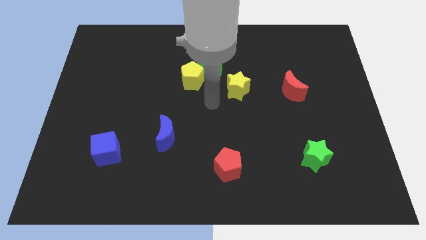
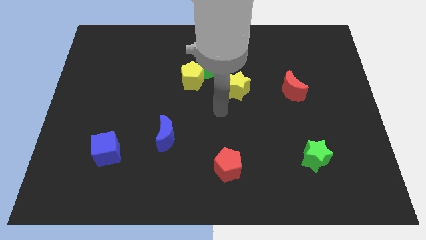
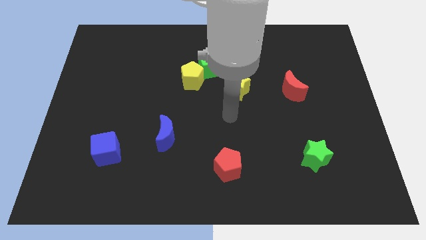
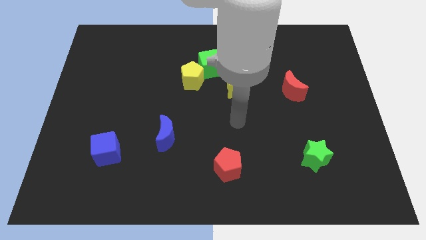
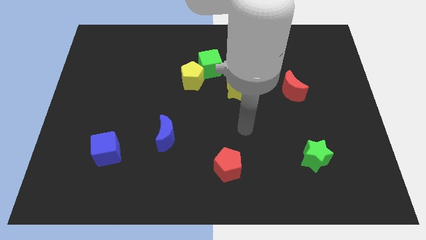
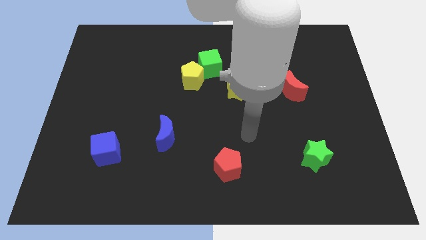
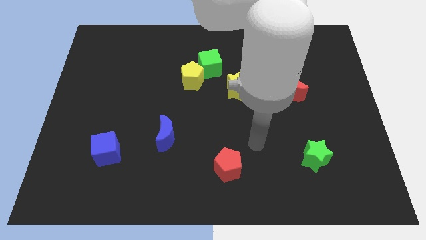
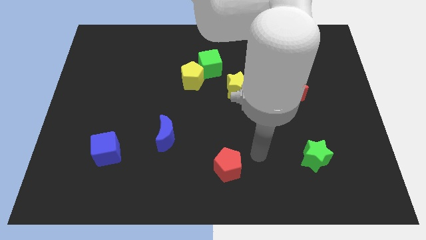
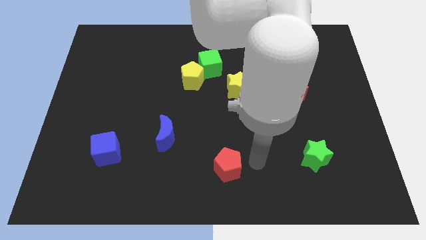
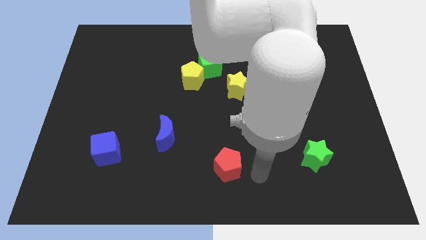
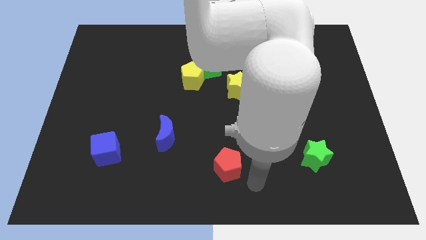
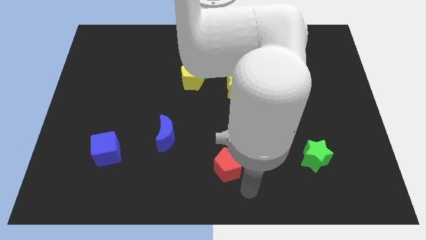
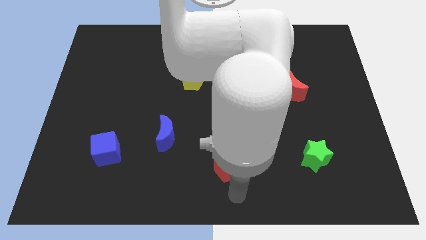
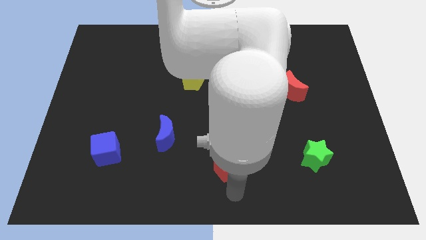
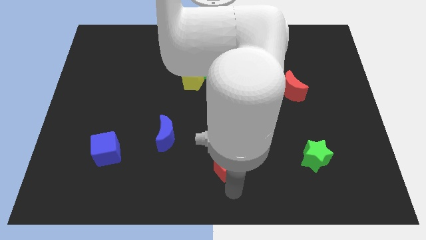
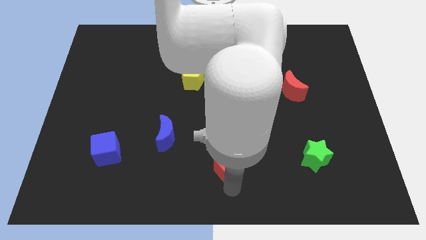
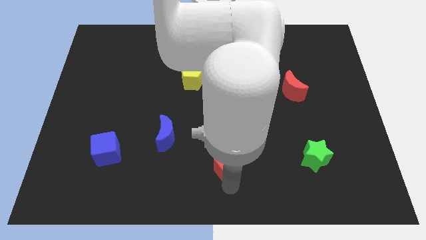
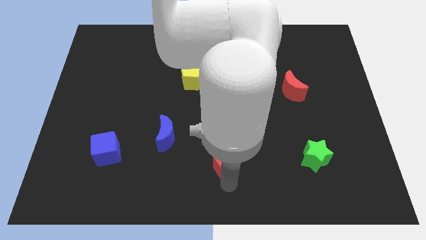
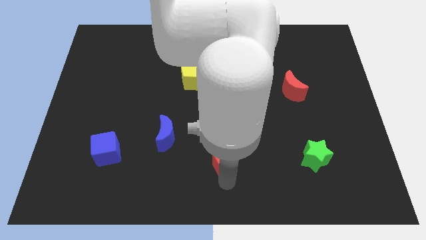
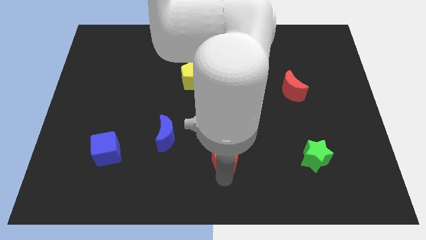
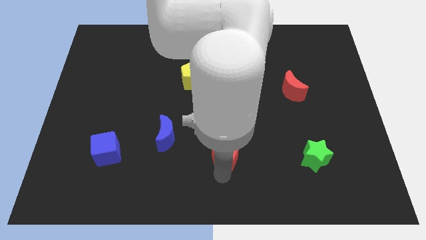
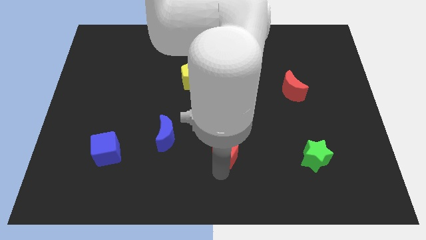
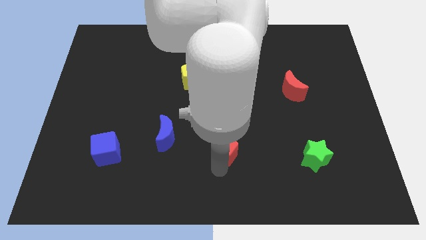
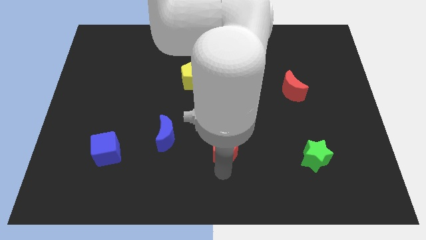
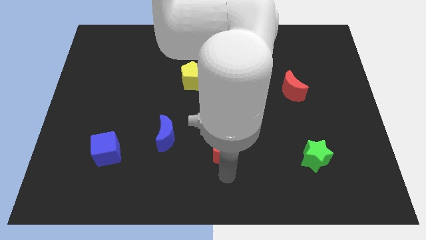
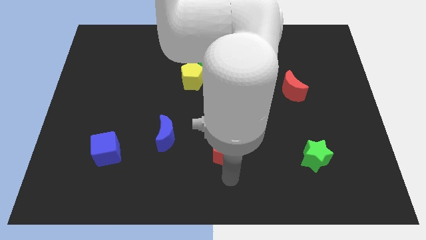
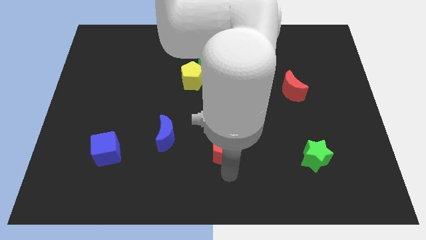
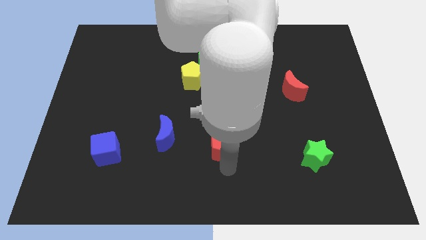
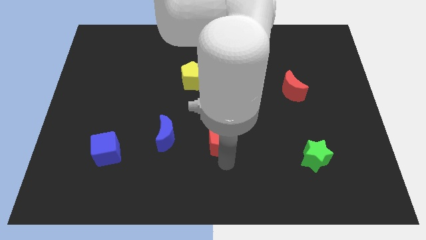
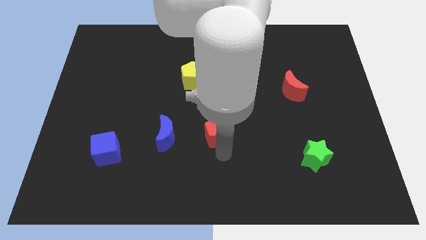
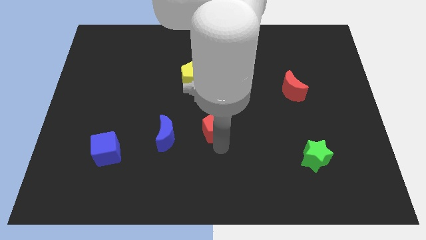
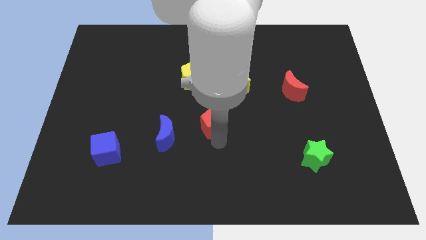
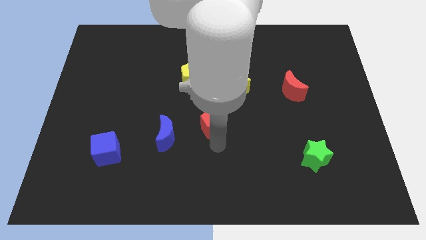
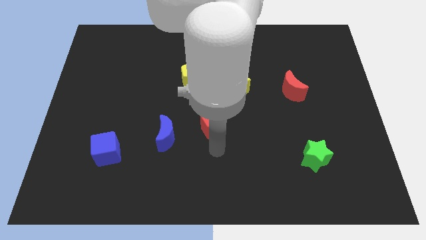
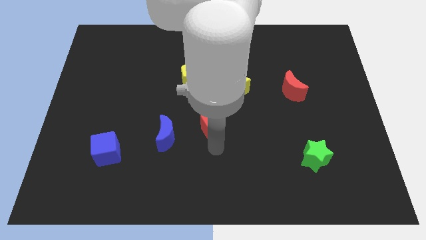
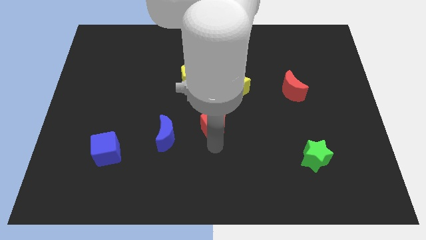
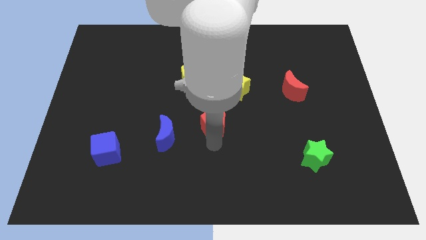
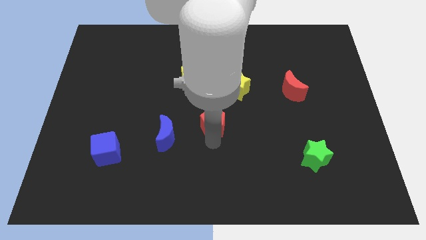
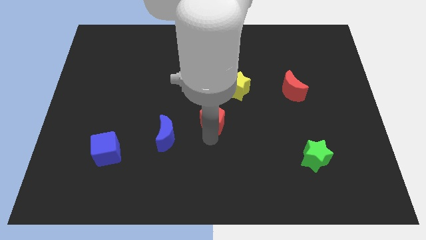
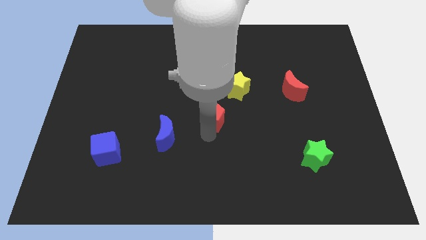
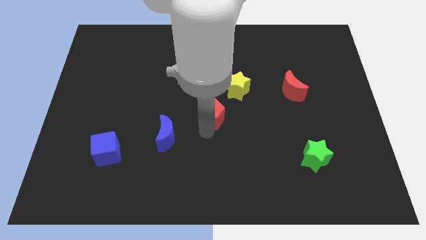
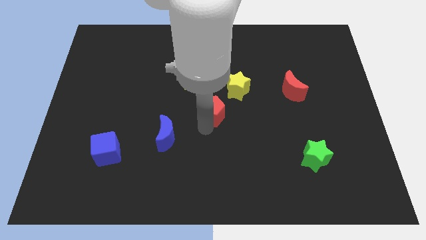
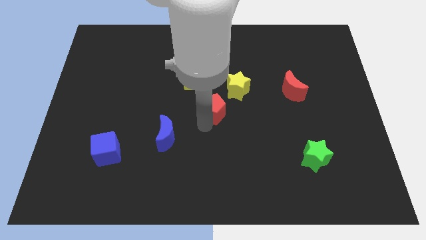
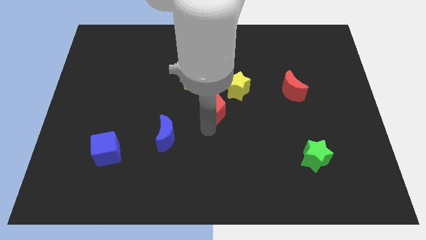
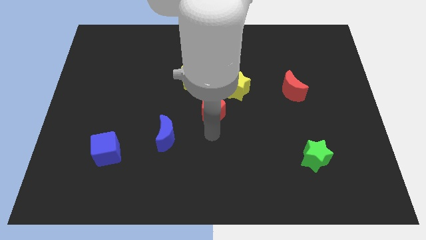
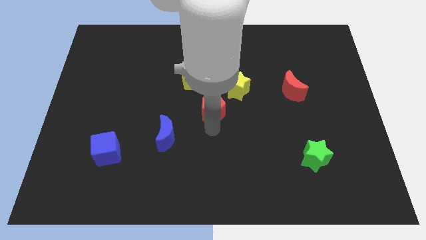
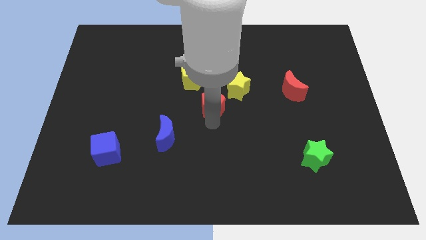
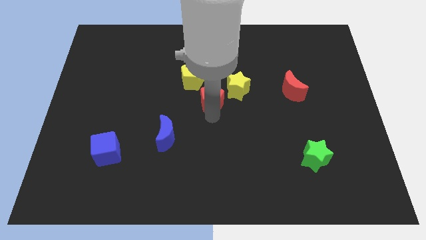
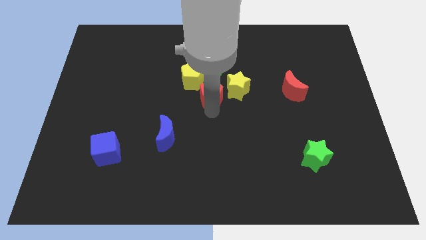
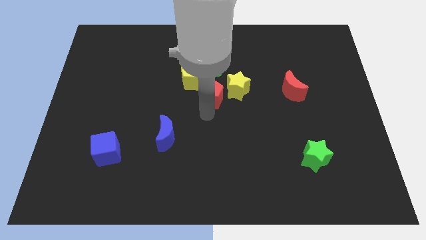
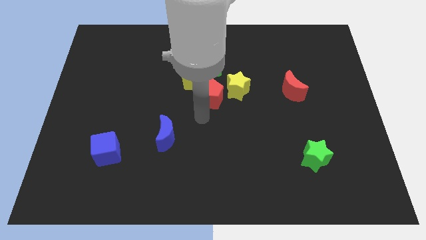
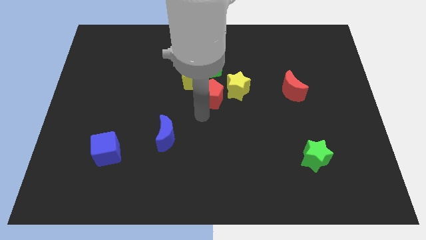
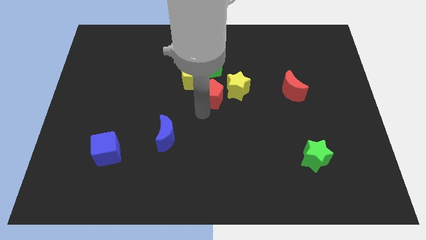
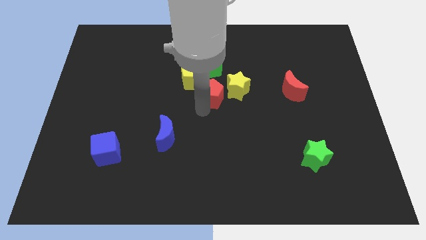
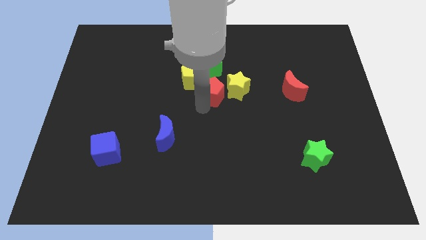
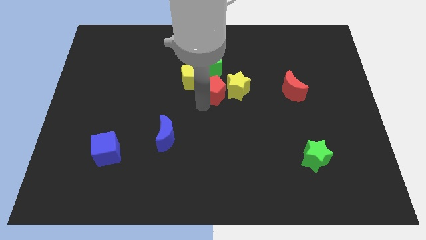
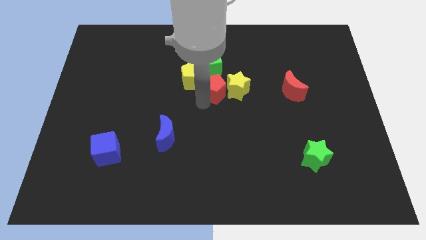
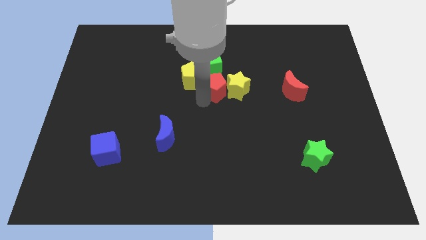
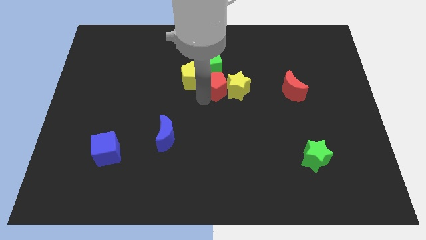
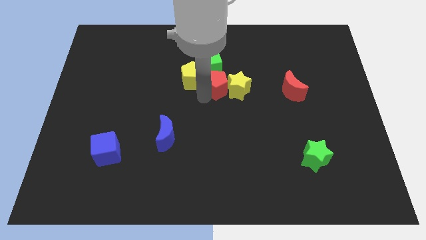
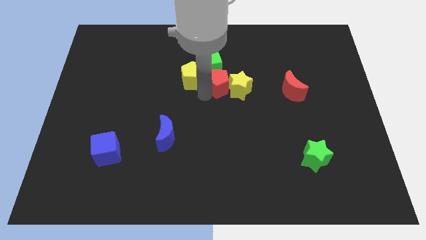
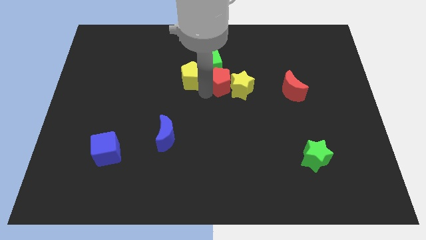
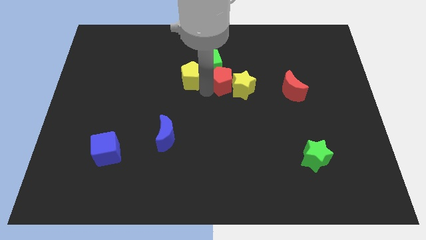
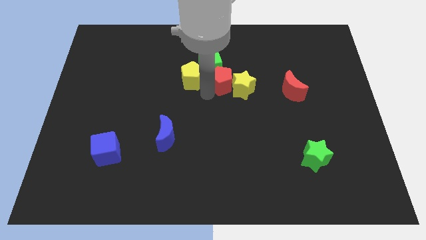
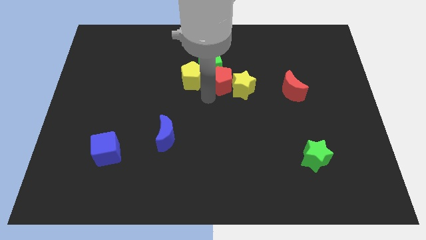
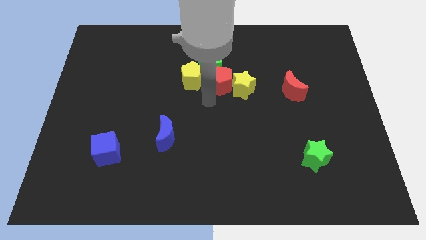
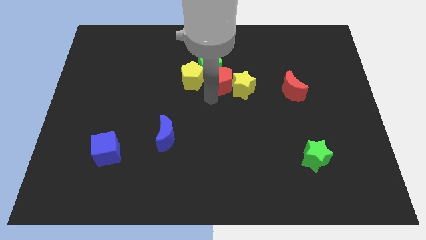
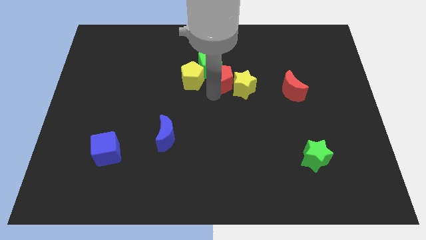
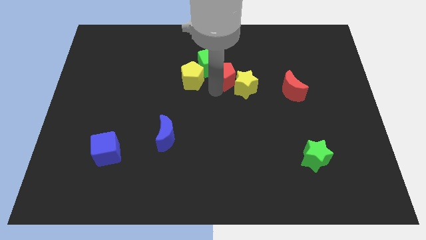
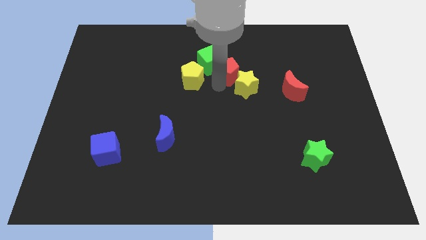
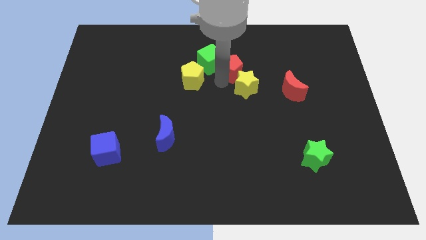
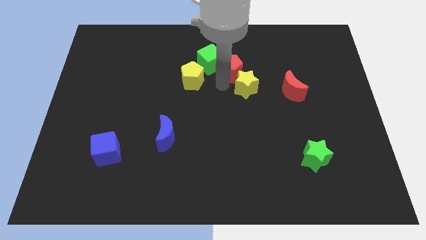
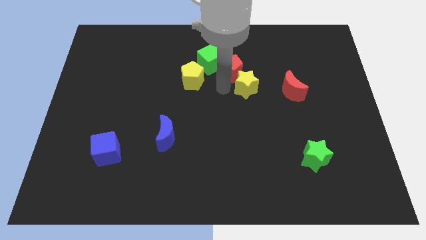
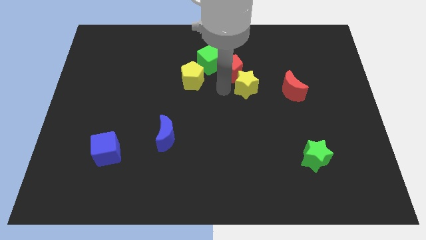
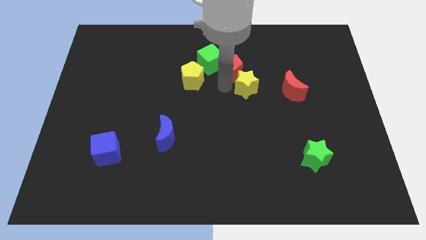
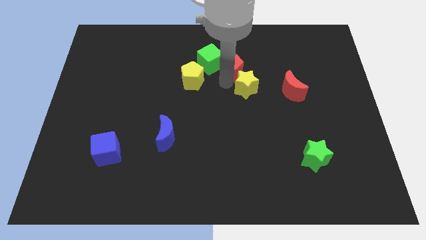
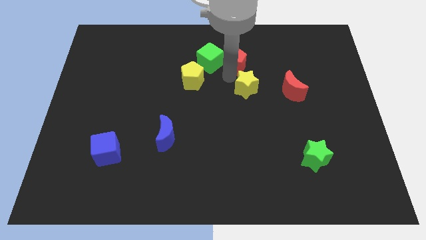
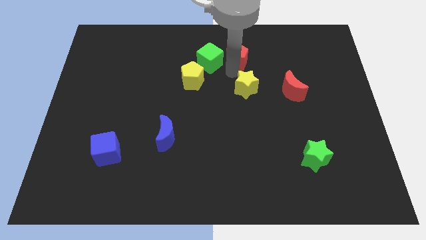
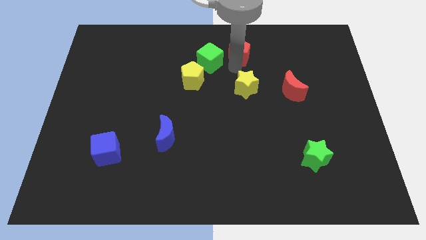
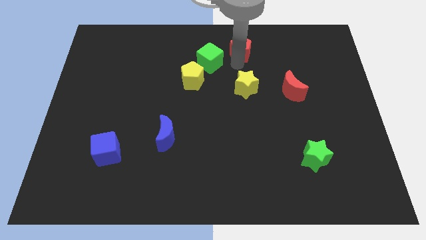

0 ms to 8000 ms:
push the red pentagon to the towards your base

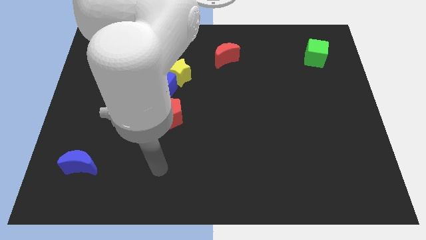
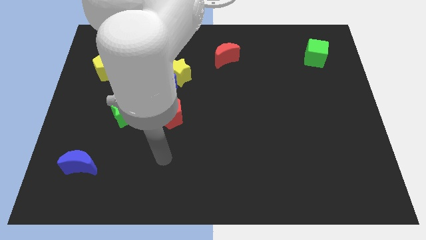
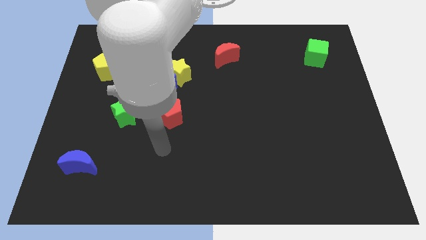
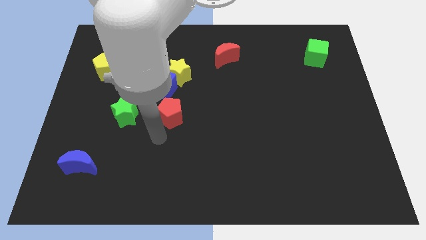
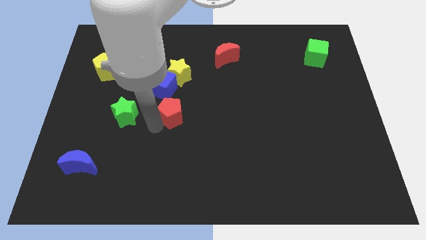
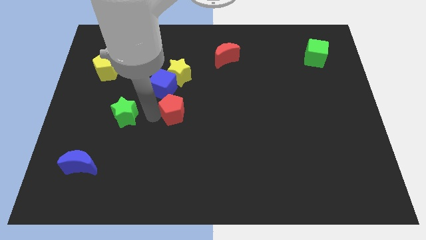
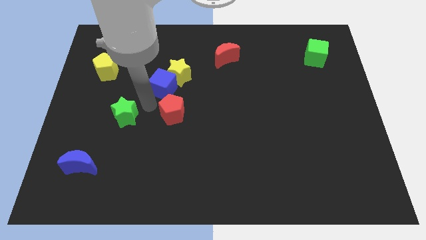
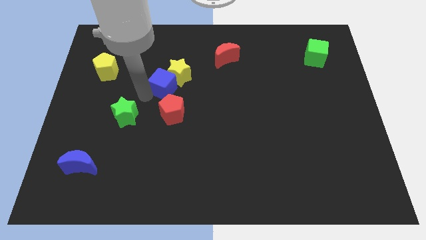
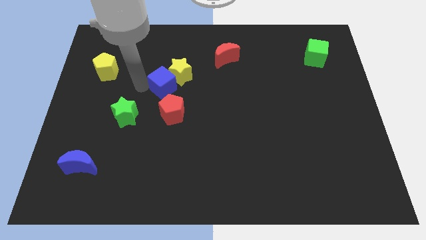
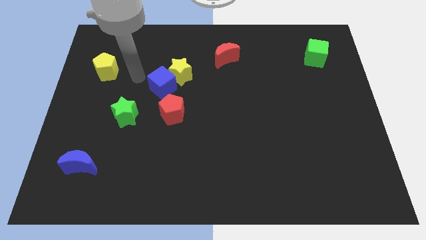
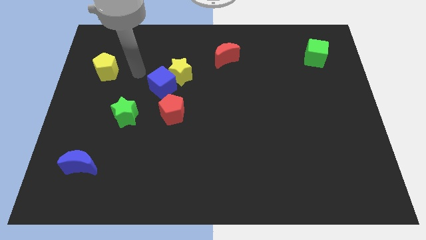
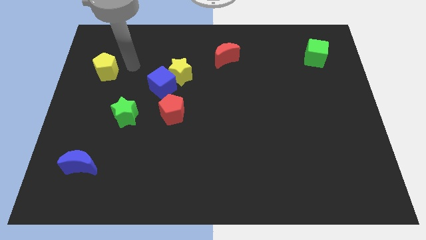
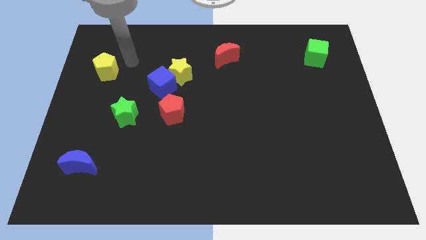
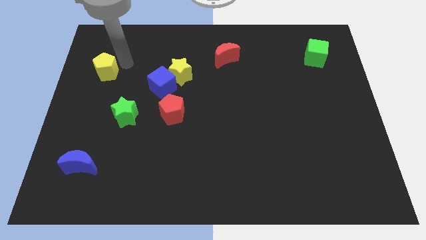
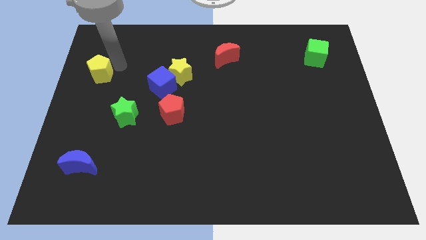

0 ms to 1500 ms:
move the yellow pentagon to the center left
